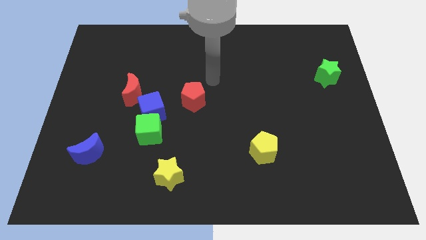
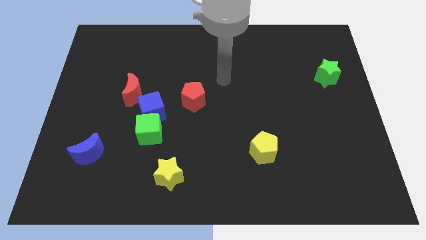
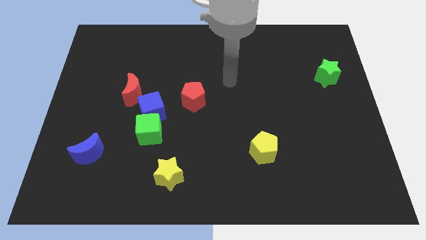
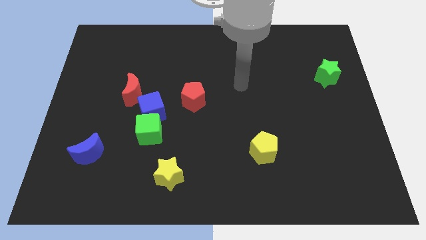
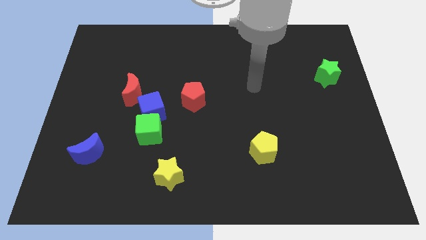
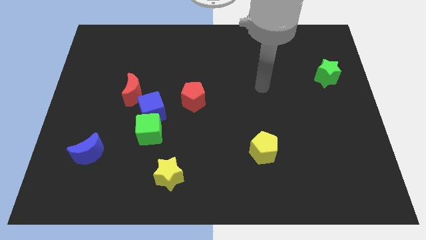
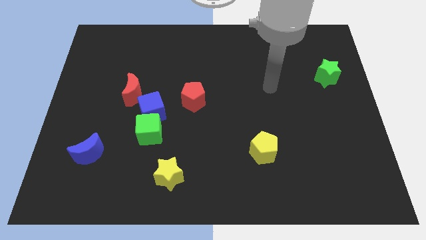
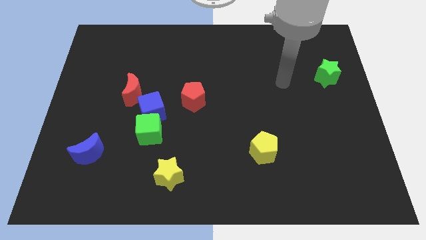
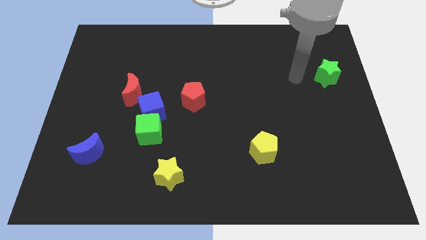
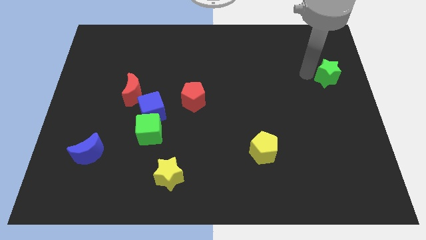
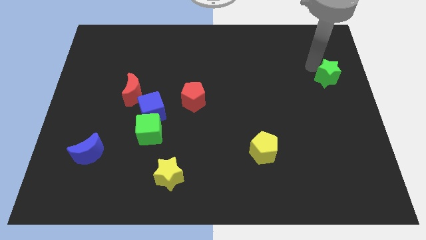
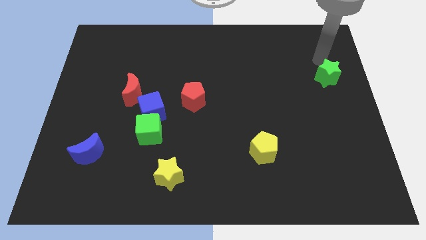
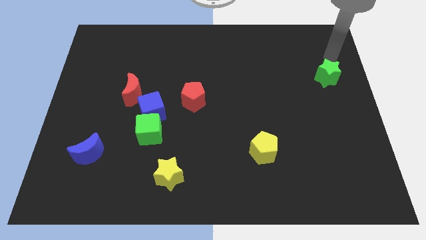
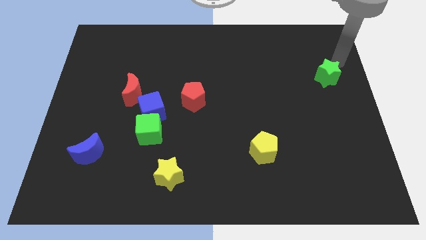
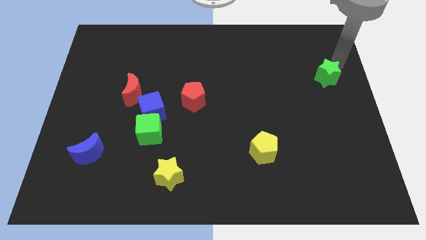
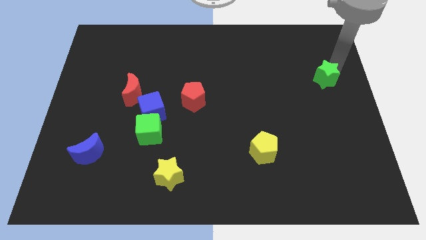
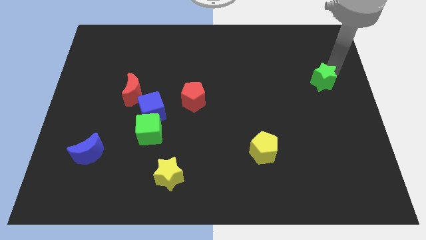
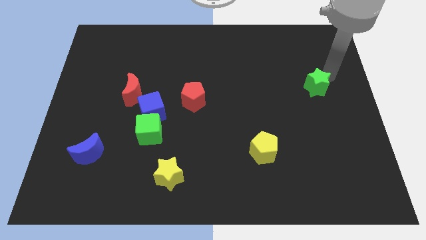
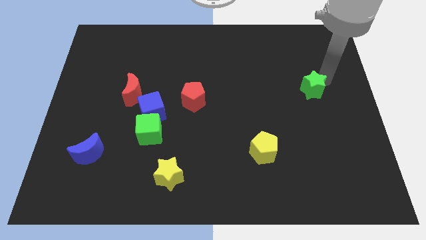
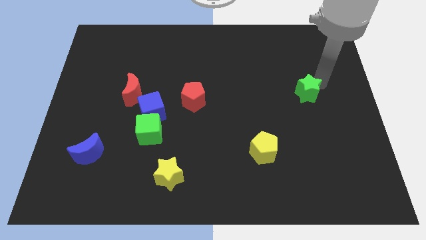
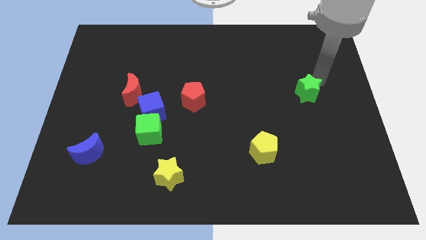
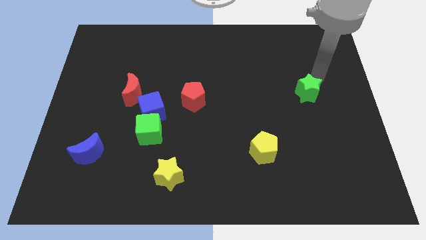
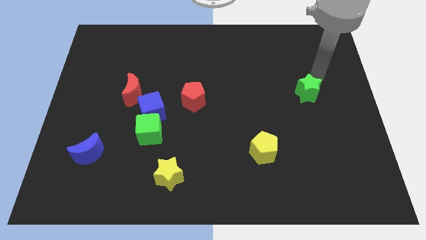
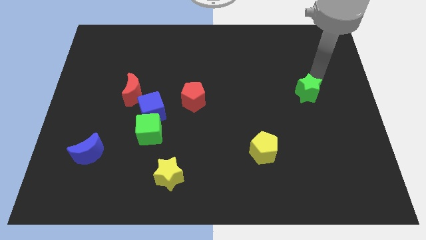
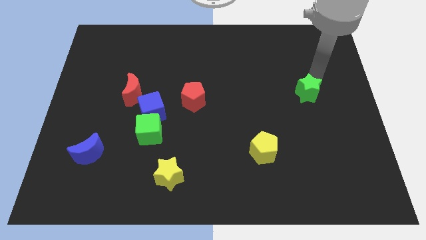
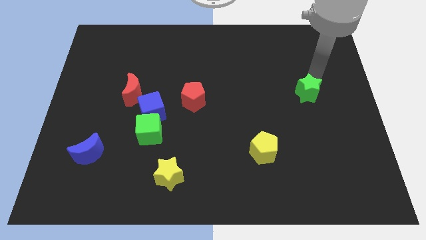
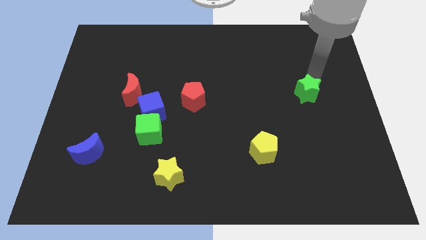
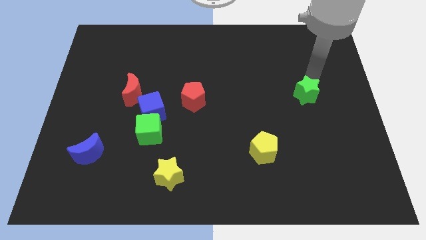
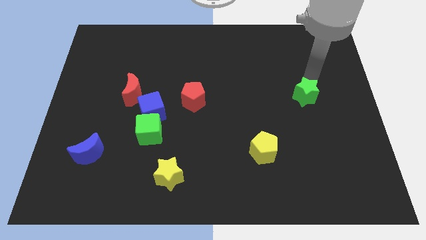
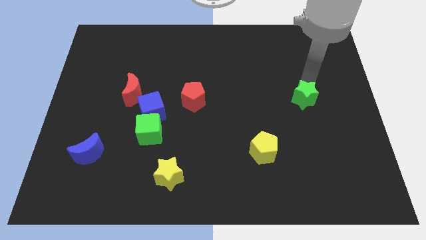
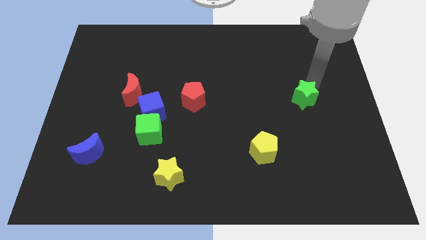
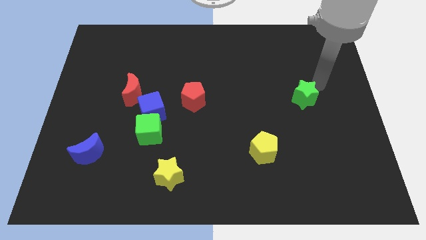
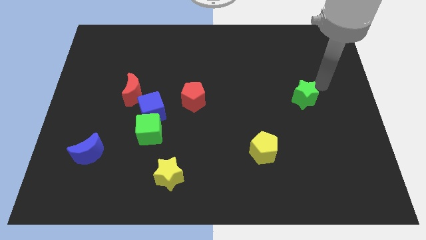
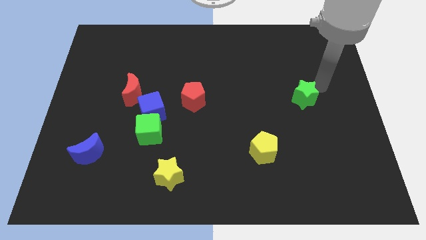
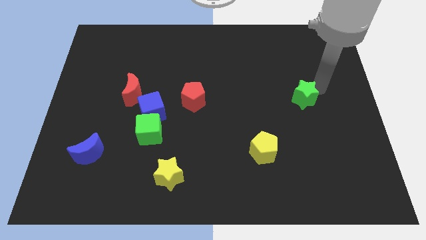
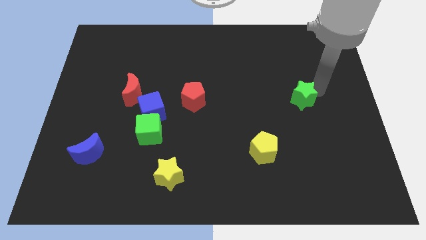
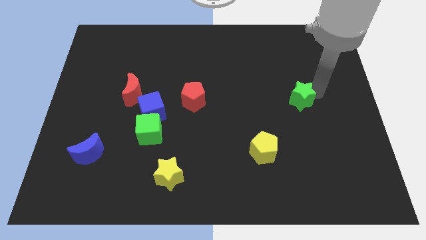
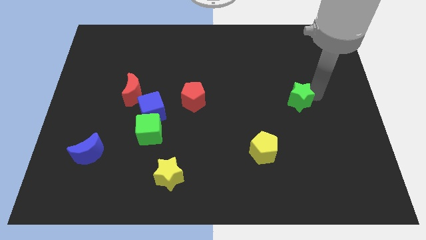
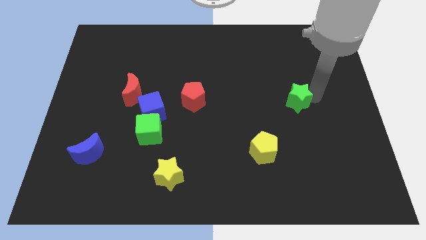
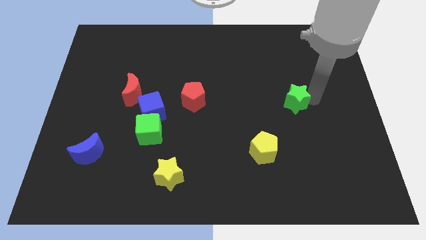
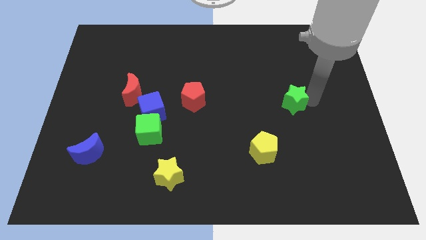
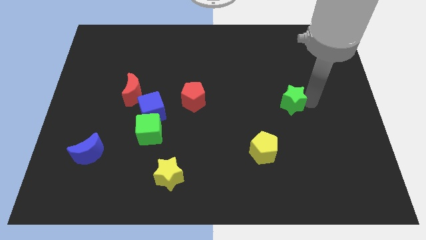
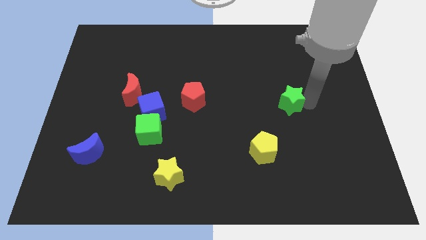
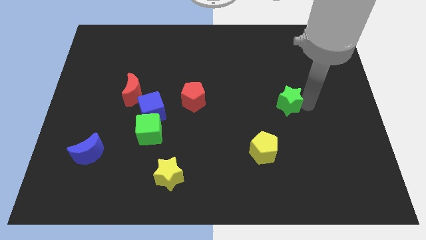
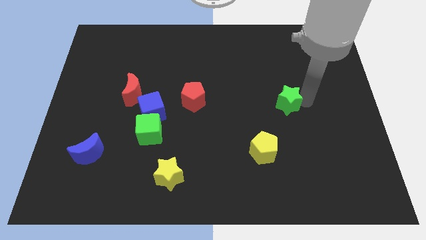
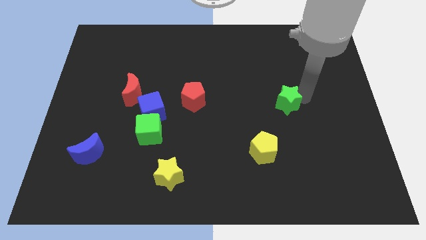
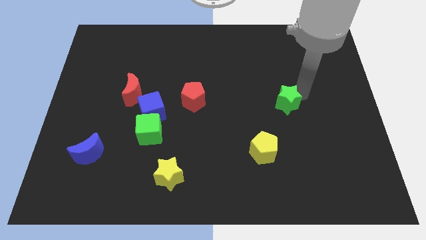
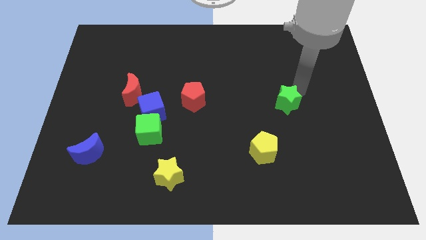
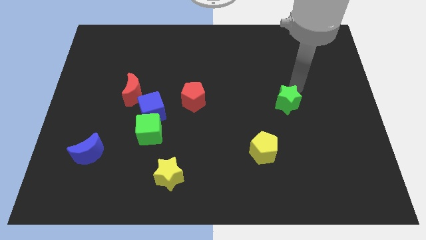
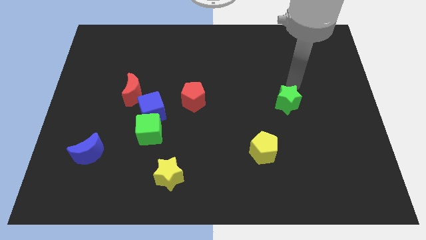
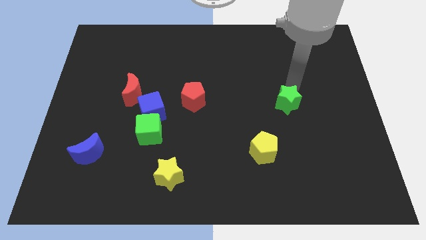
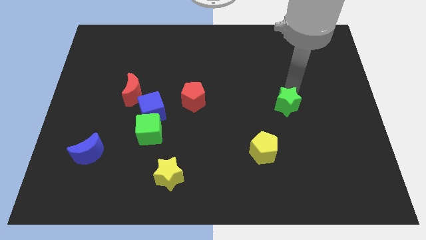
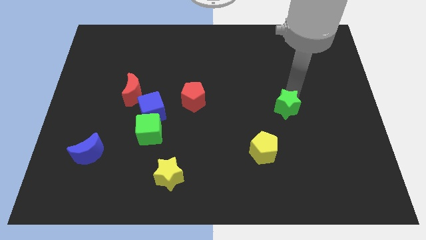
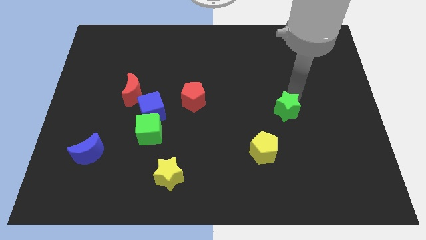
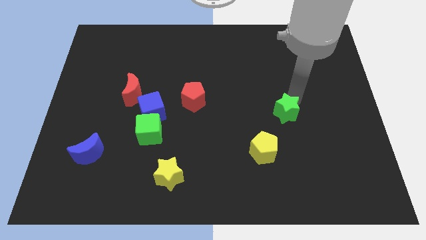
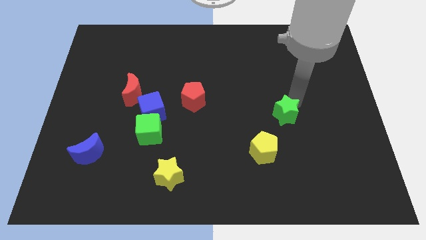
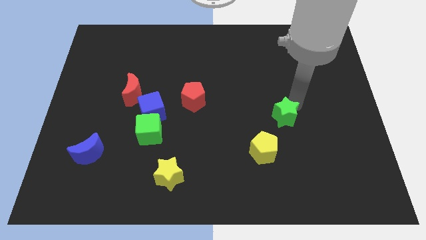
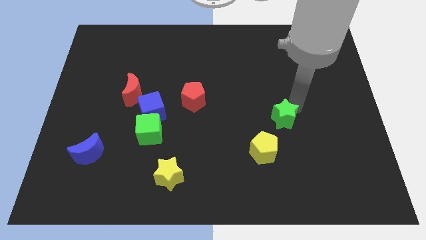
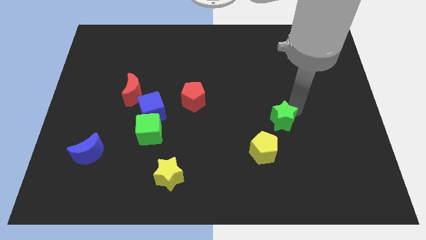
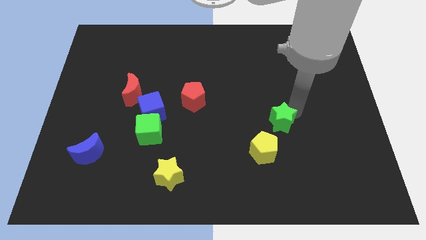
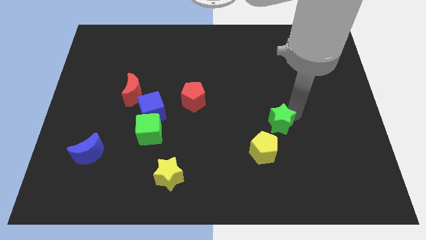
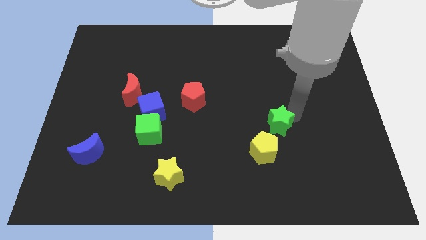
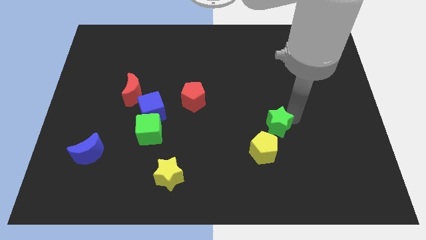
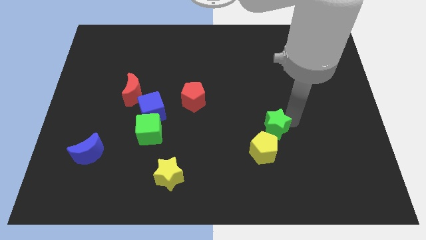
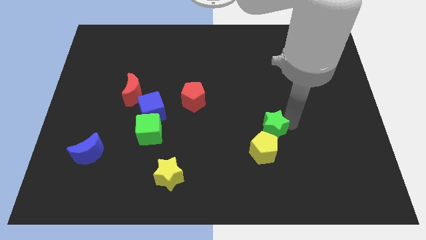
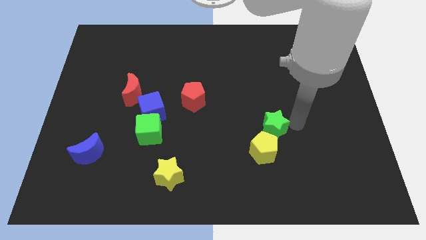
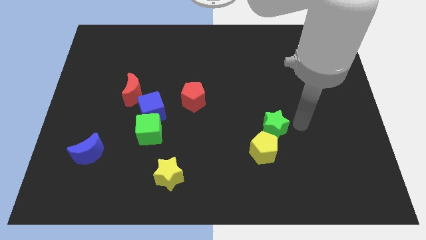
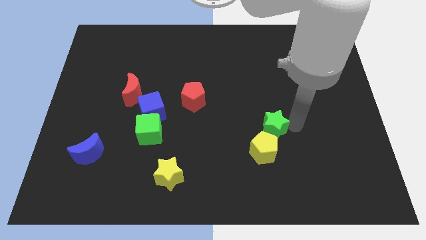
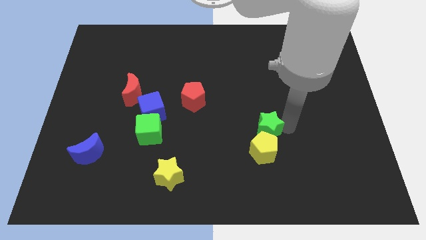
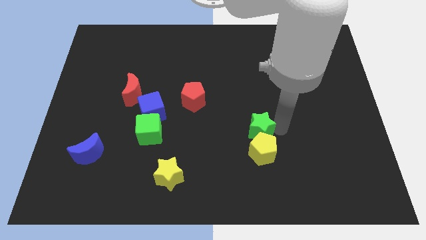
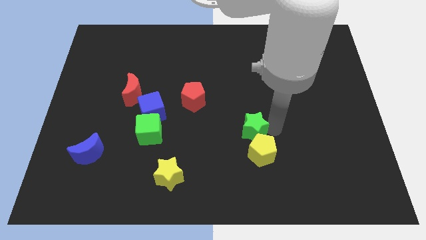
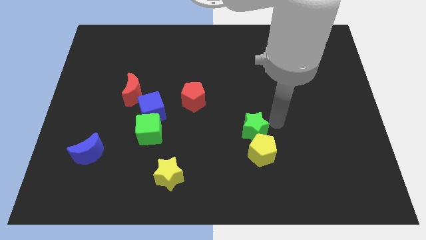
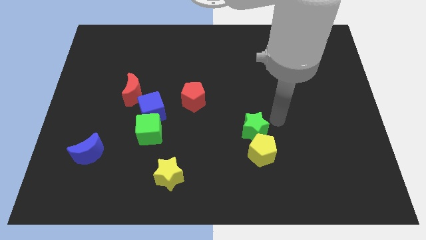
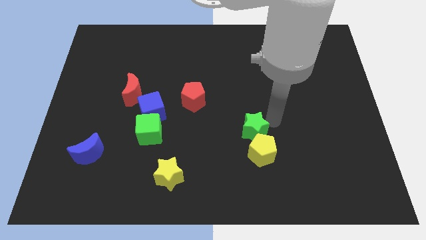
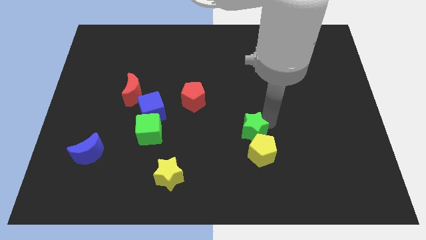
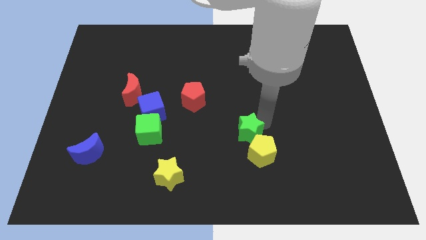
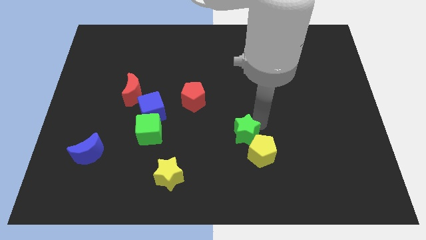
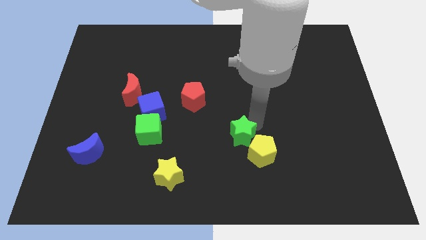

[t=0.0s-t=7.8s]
slide the green star to the left side of the yellow pentagon

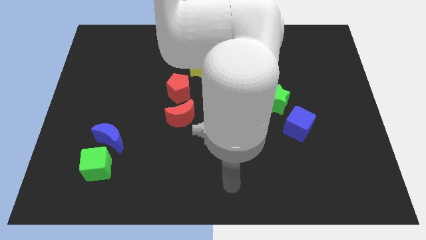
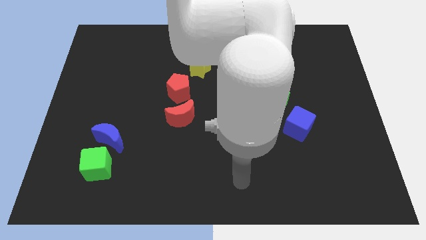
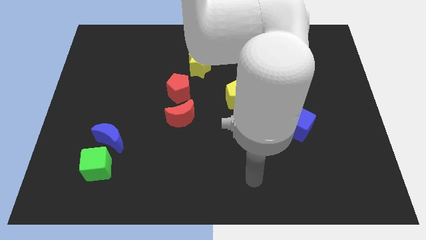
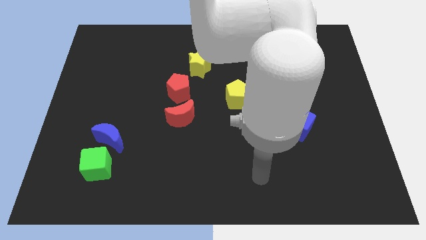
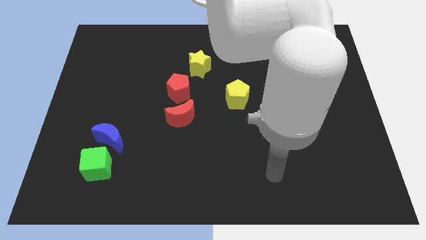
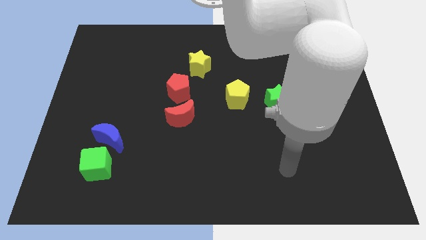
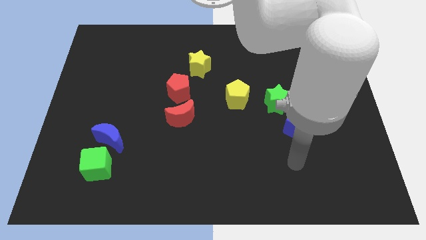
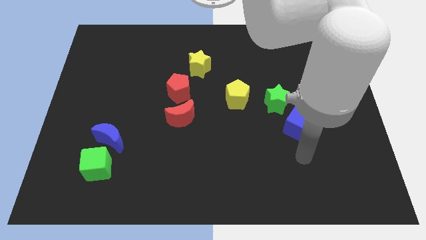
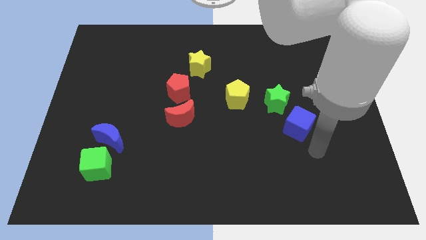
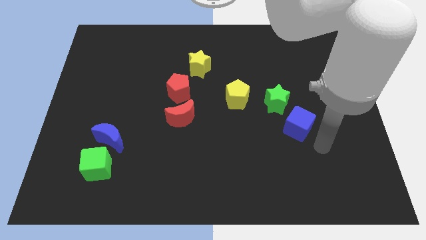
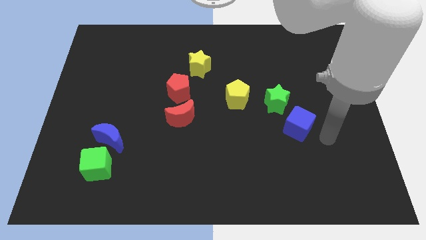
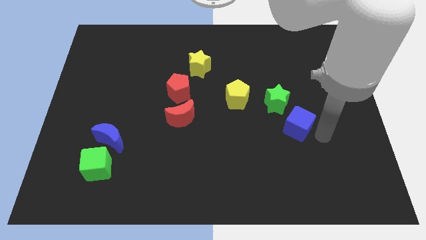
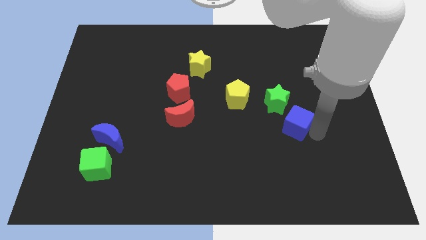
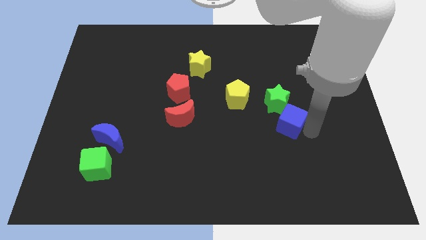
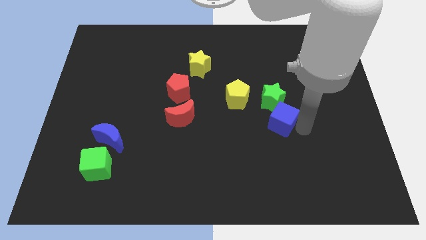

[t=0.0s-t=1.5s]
slide the blue cube diagonally down and to the right of the yellow pentagon
